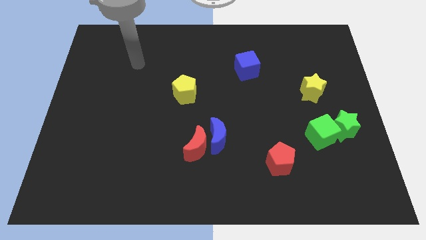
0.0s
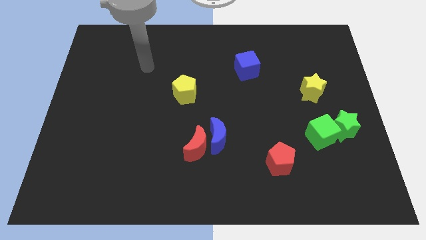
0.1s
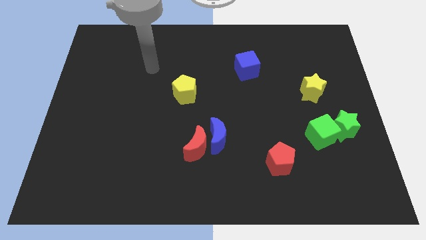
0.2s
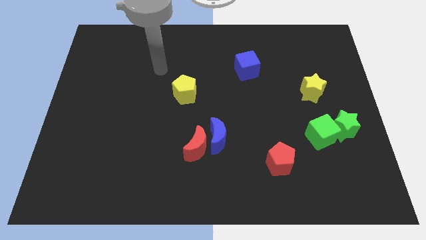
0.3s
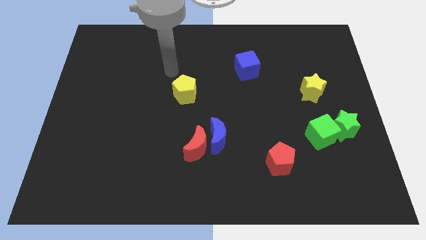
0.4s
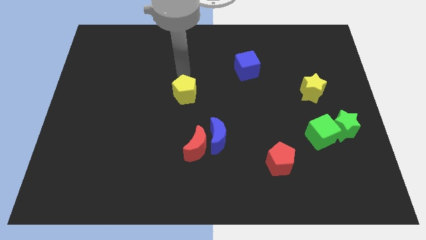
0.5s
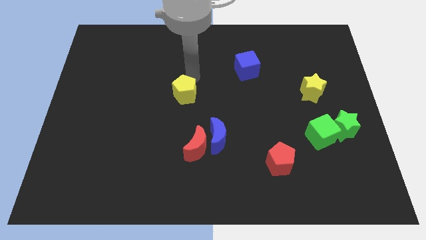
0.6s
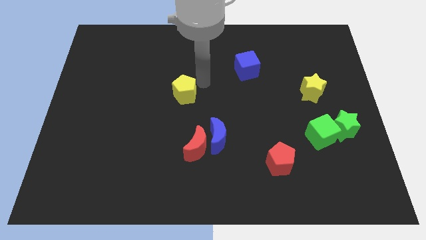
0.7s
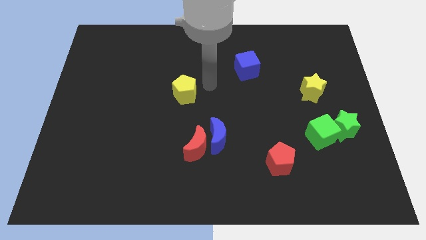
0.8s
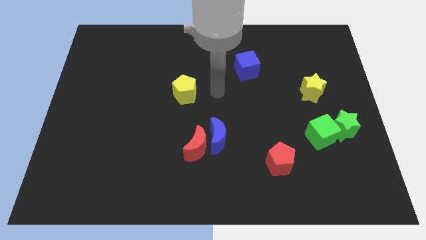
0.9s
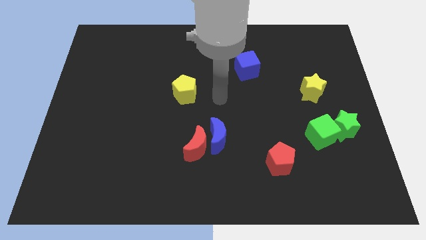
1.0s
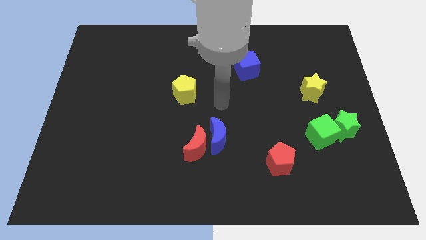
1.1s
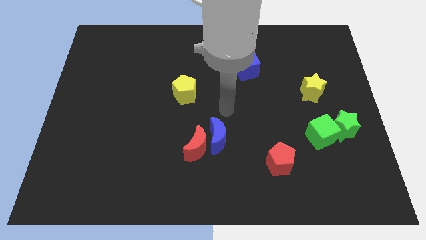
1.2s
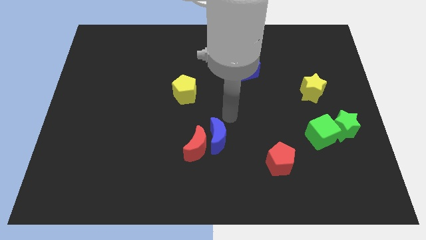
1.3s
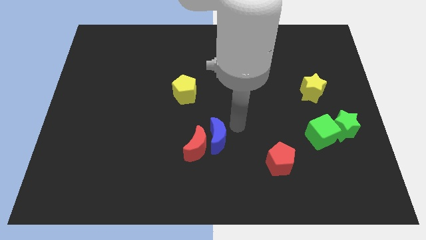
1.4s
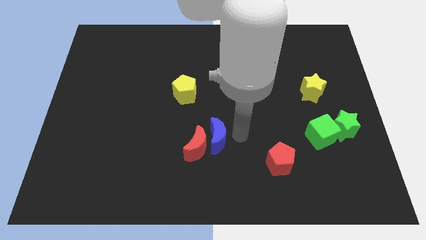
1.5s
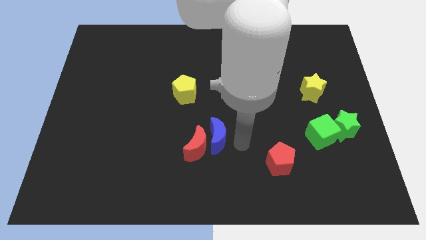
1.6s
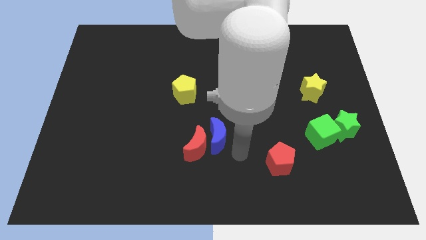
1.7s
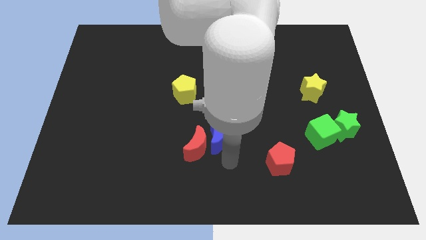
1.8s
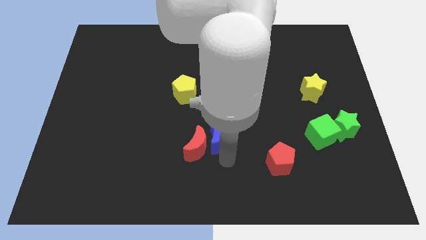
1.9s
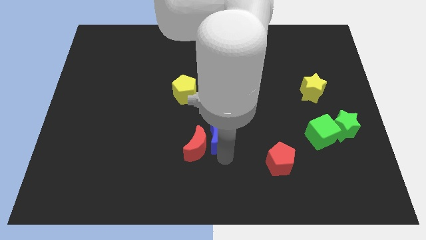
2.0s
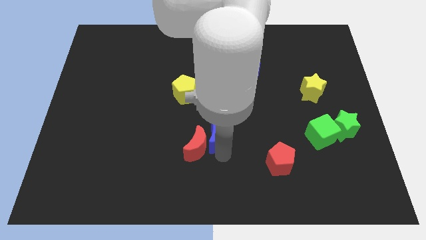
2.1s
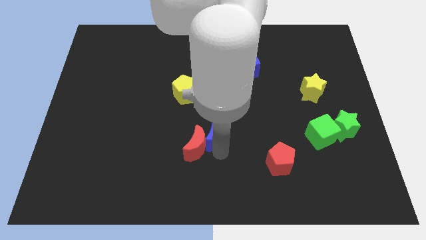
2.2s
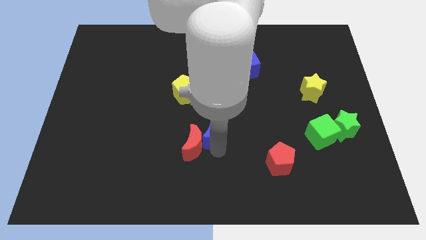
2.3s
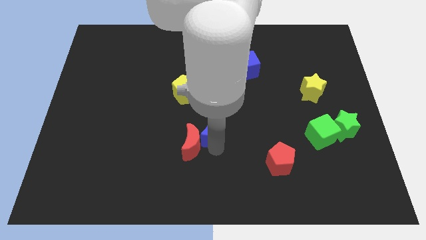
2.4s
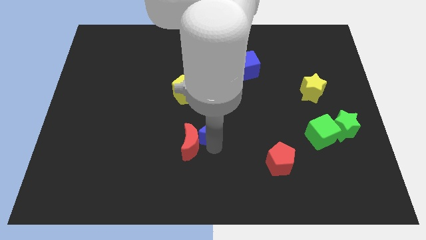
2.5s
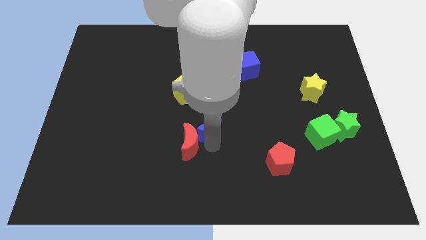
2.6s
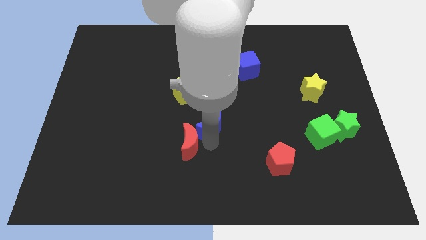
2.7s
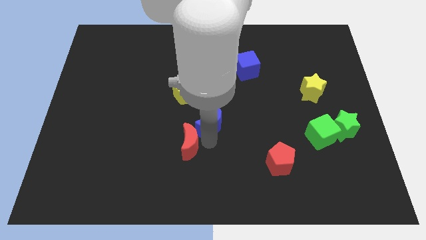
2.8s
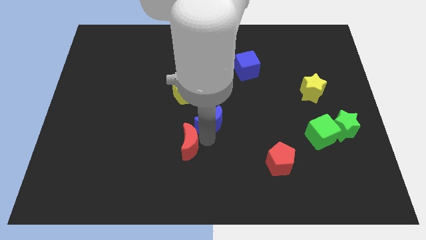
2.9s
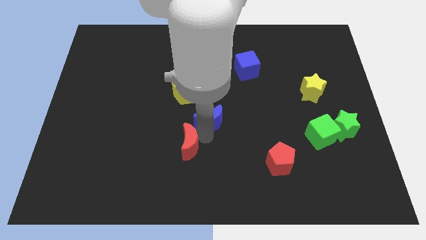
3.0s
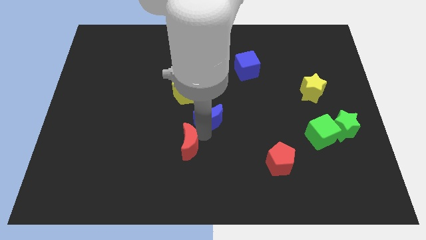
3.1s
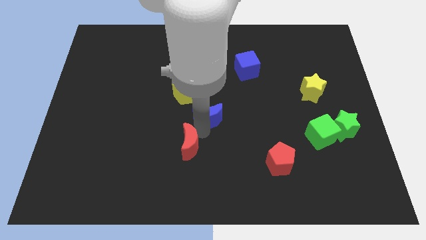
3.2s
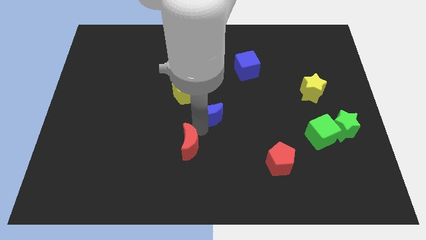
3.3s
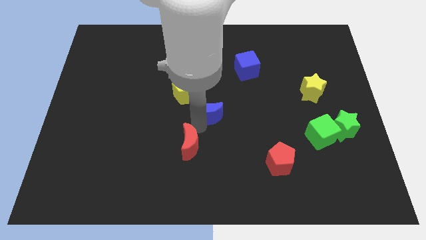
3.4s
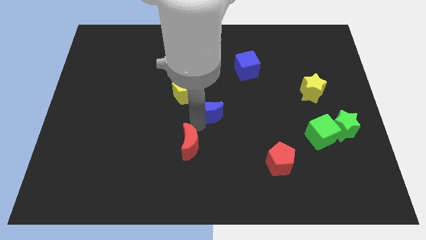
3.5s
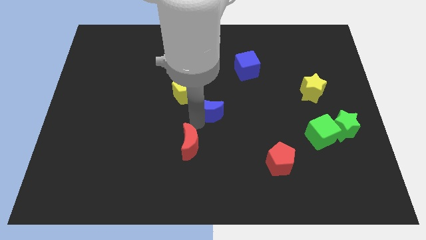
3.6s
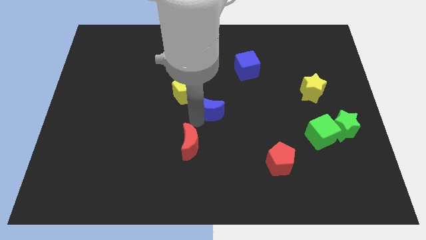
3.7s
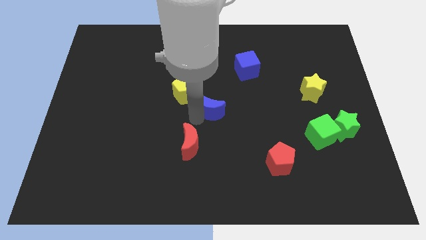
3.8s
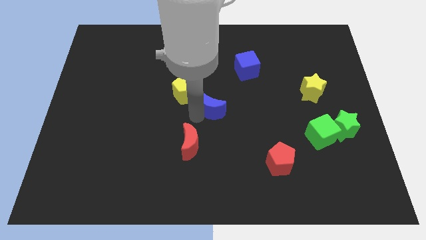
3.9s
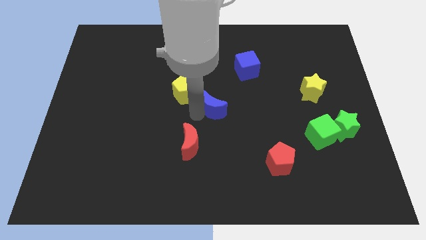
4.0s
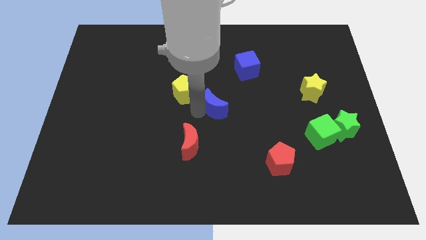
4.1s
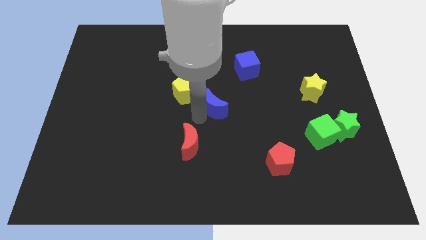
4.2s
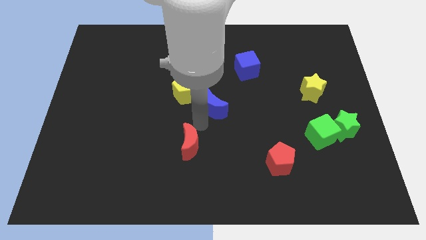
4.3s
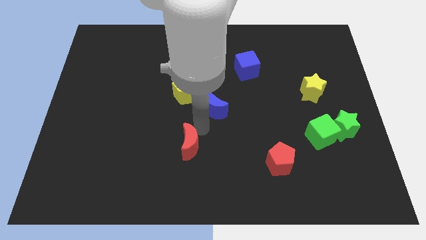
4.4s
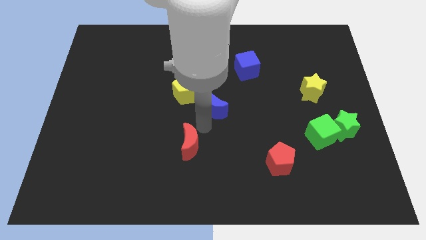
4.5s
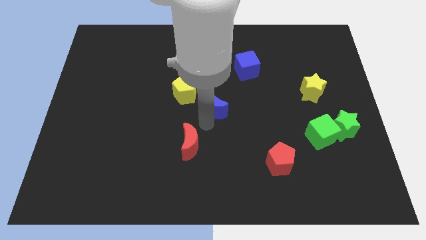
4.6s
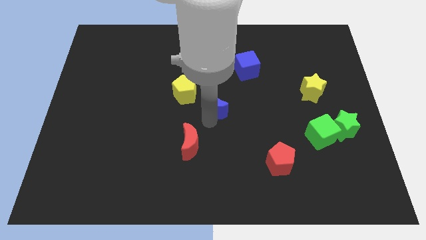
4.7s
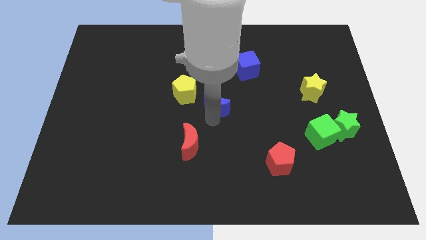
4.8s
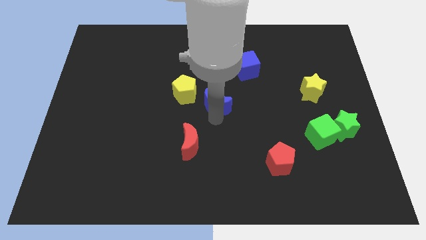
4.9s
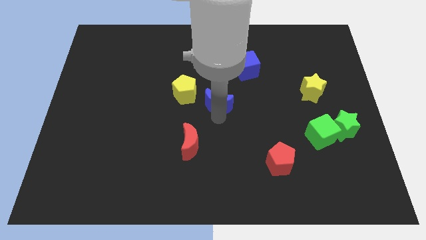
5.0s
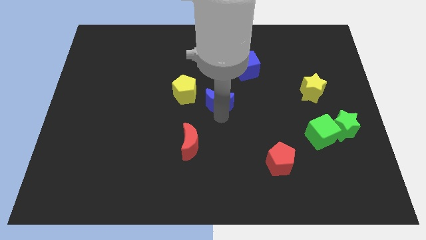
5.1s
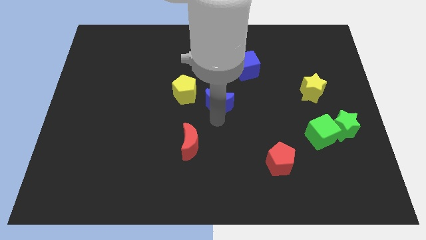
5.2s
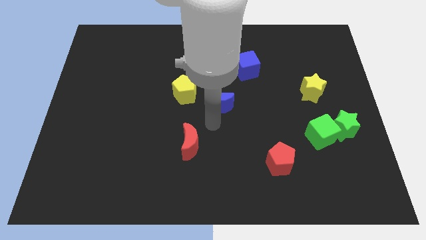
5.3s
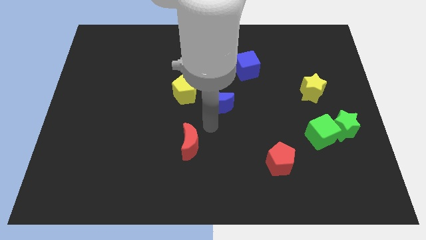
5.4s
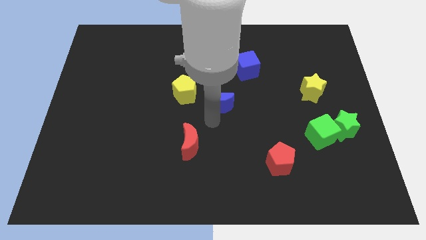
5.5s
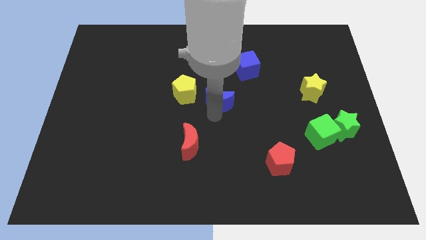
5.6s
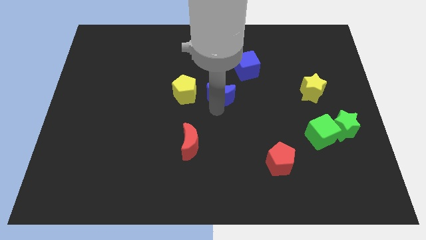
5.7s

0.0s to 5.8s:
move the blue moon diagonally down and to the left of the blue cube

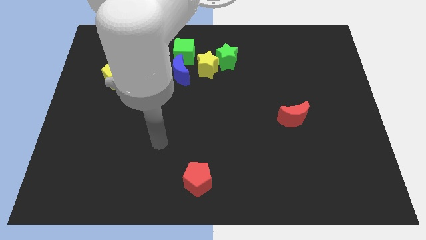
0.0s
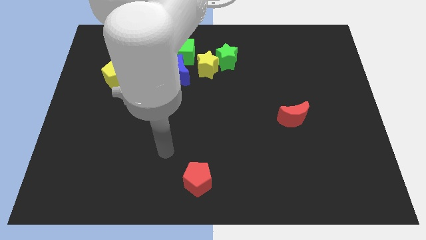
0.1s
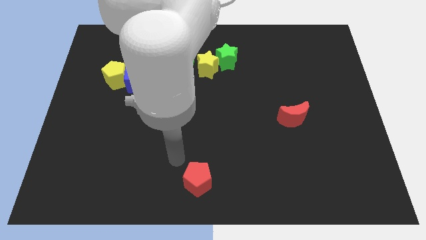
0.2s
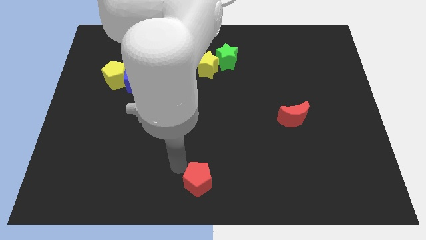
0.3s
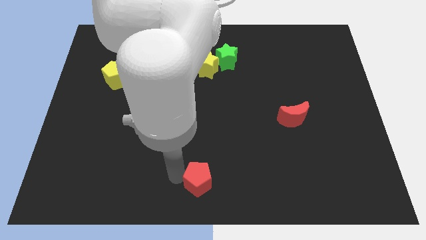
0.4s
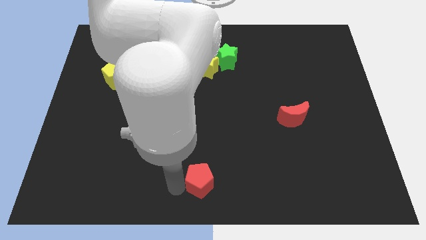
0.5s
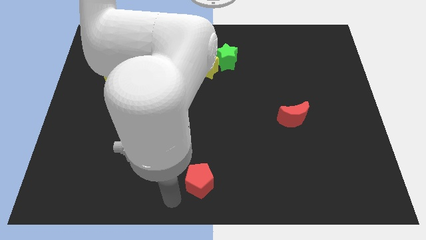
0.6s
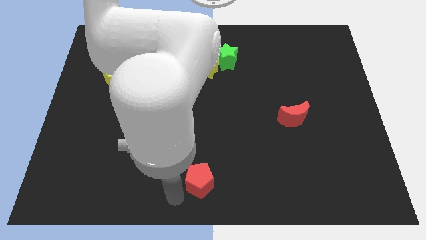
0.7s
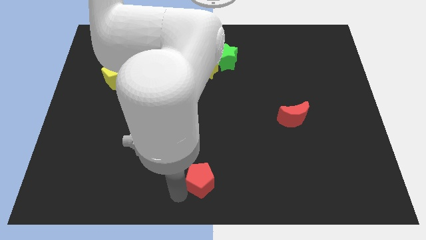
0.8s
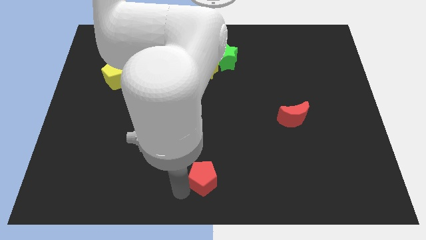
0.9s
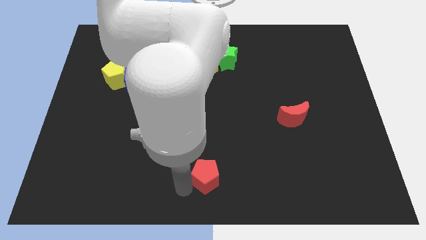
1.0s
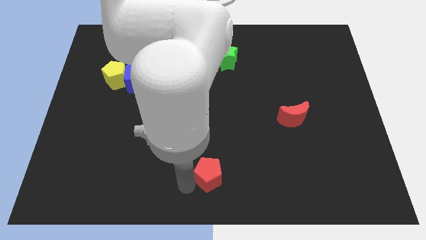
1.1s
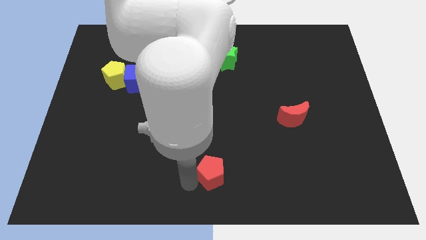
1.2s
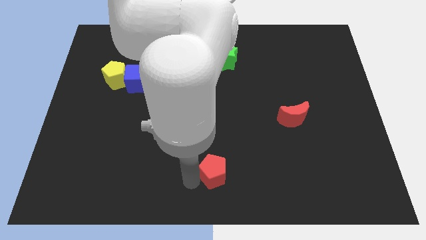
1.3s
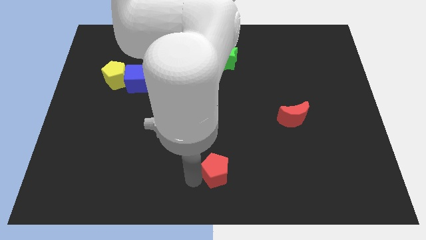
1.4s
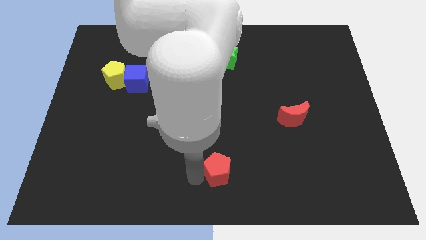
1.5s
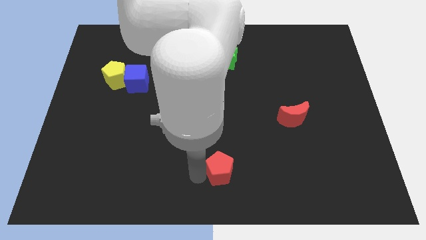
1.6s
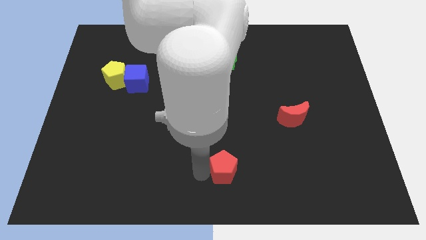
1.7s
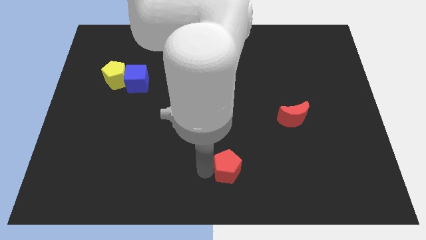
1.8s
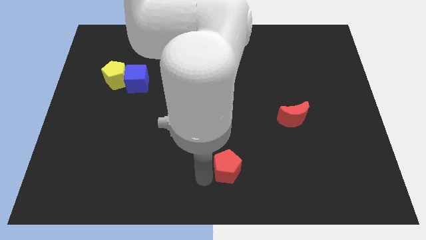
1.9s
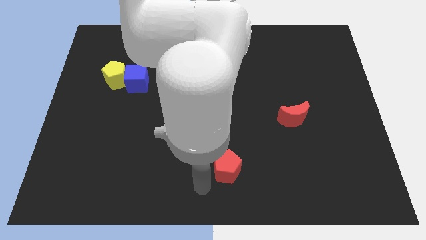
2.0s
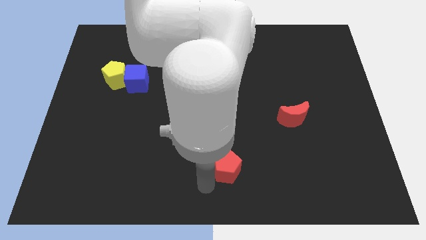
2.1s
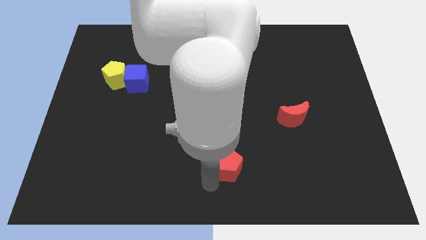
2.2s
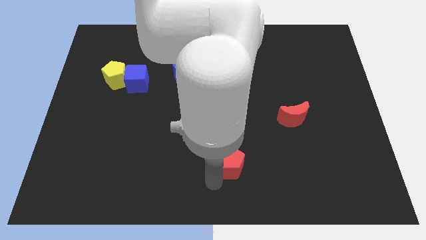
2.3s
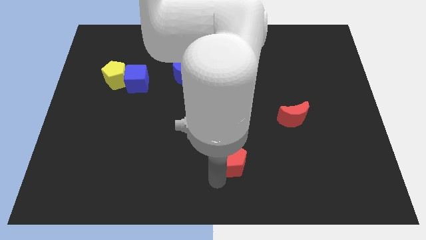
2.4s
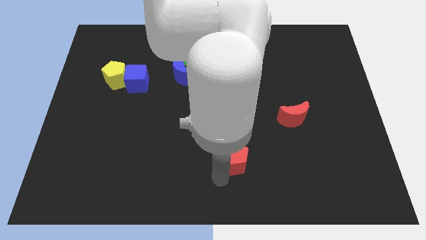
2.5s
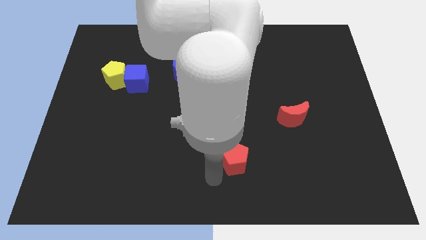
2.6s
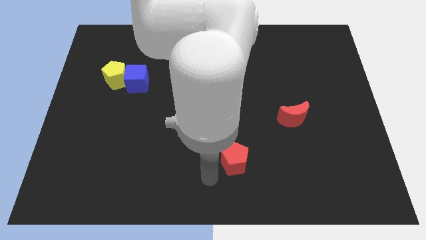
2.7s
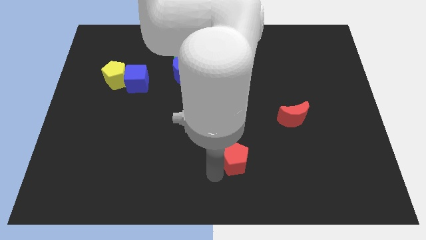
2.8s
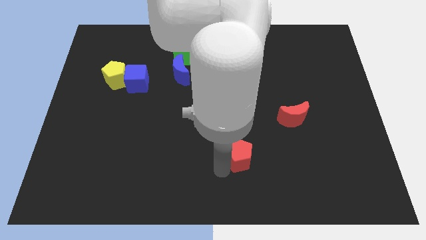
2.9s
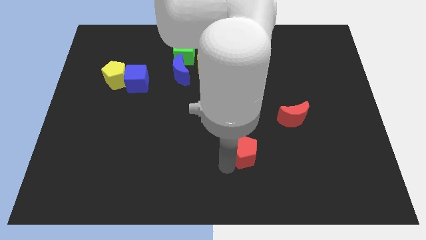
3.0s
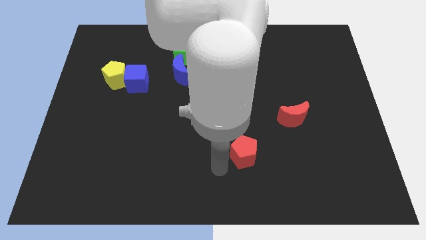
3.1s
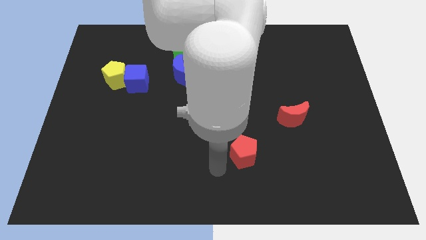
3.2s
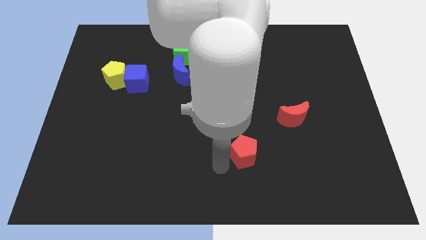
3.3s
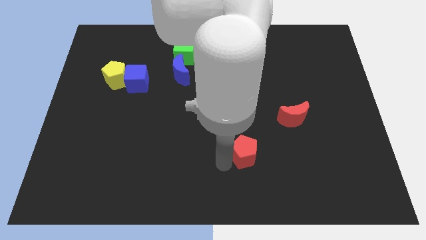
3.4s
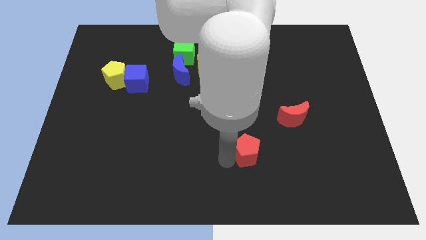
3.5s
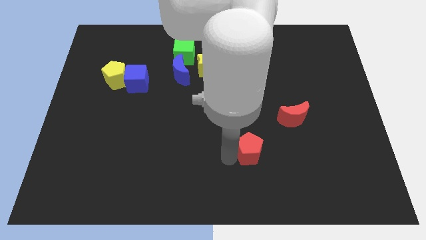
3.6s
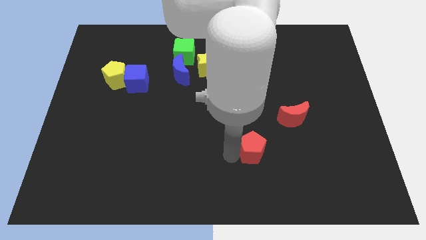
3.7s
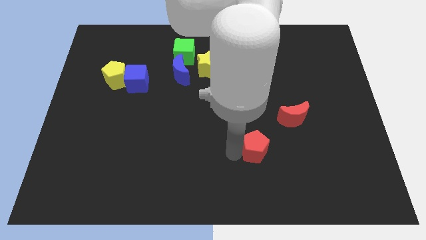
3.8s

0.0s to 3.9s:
put the red pentagon diagonally down and to the left of the red moon
